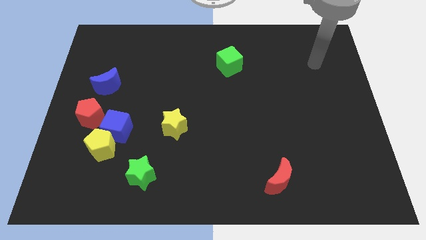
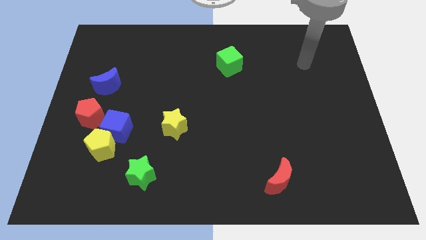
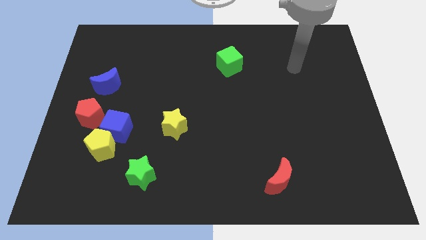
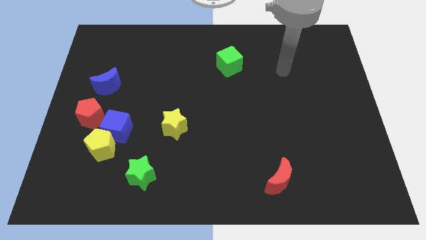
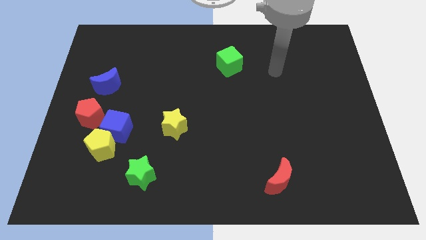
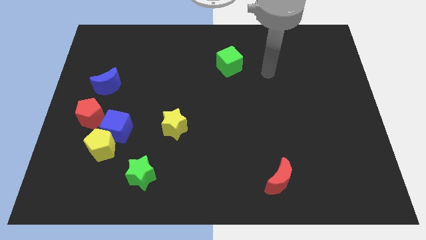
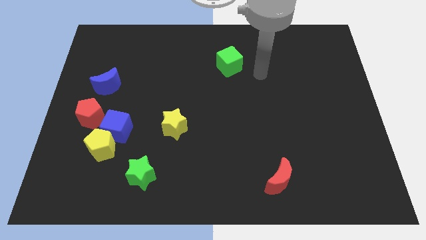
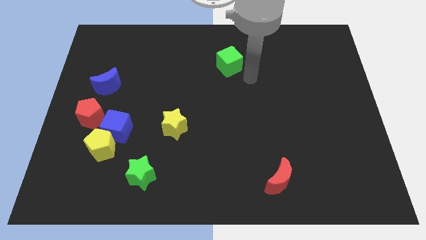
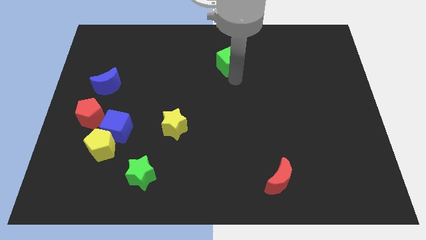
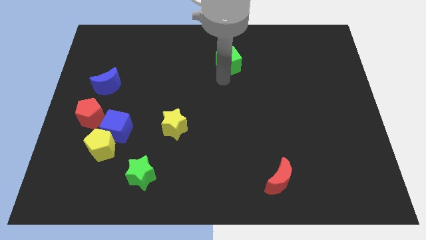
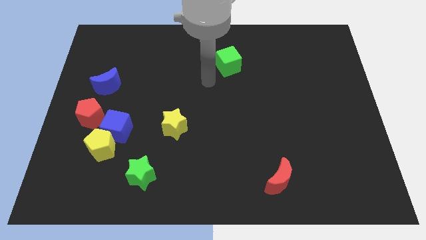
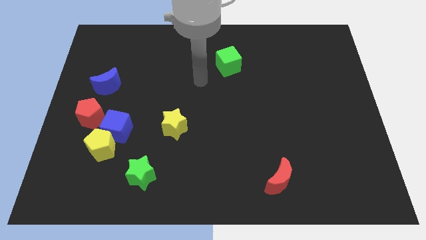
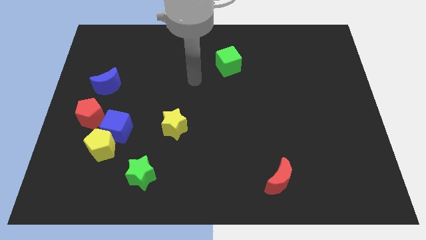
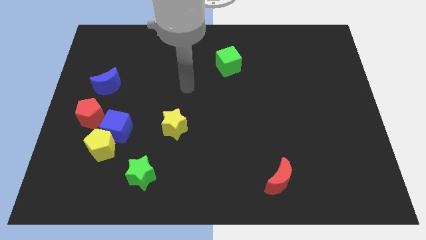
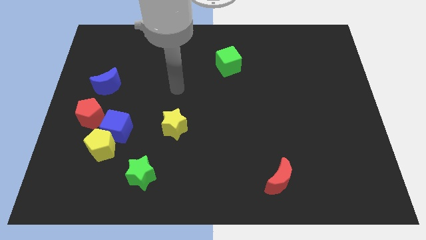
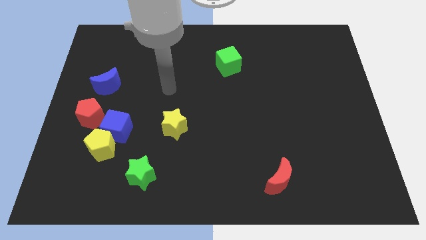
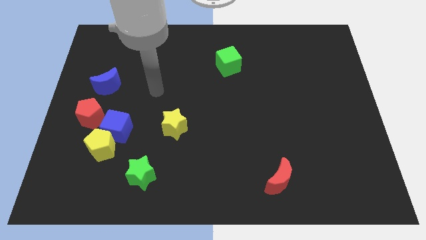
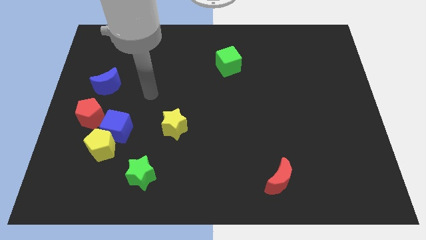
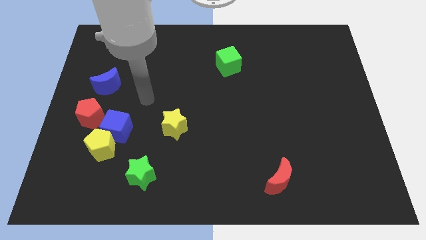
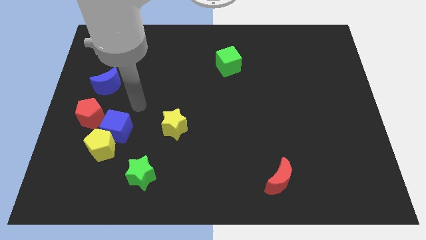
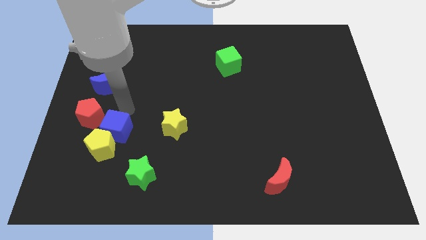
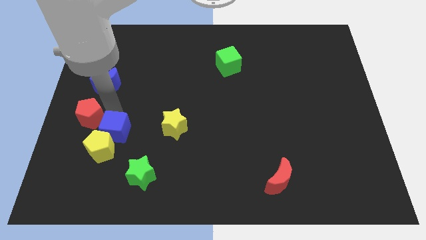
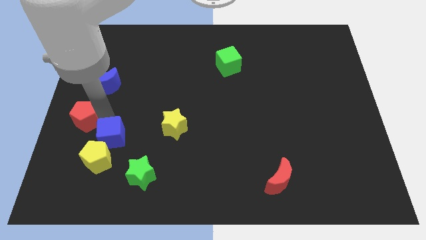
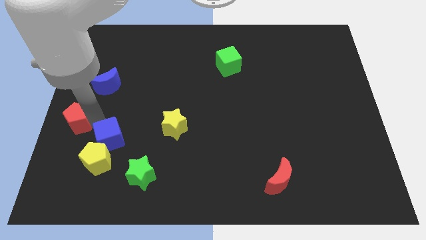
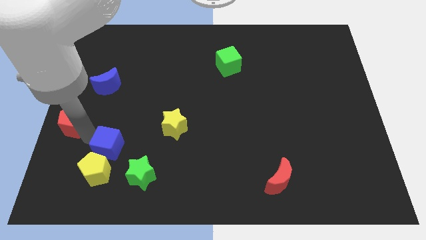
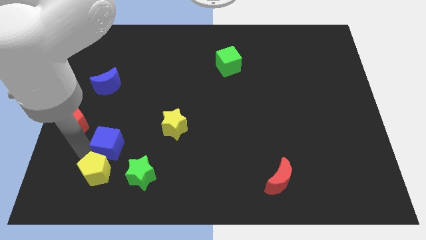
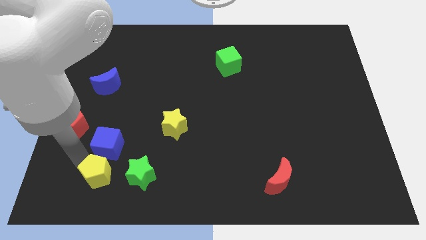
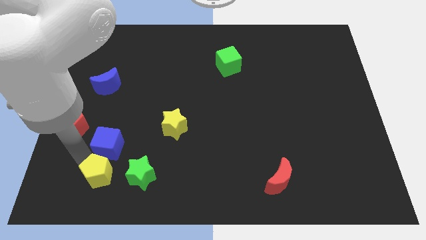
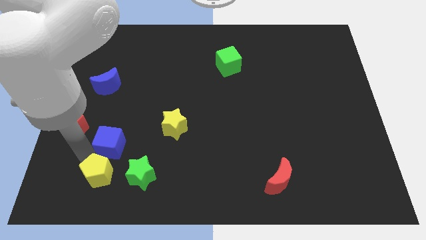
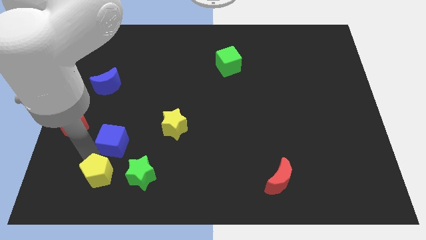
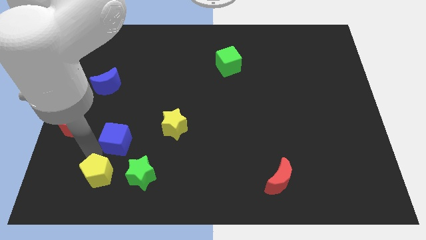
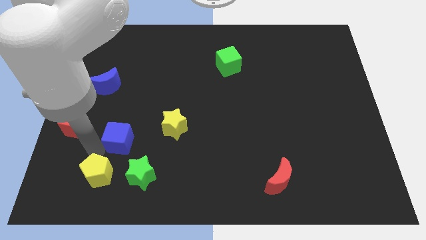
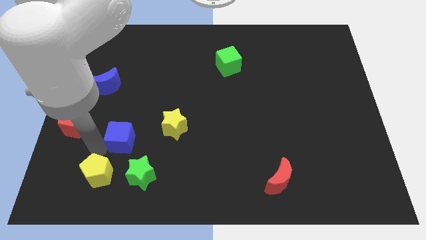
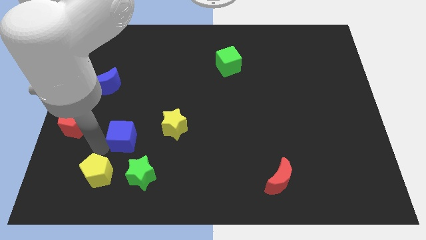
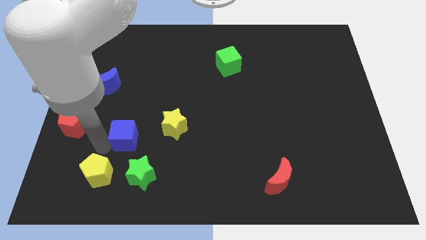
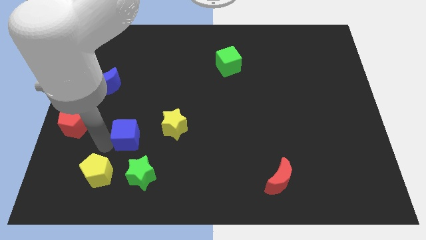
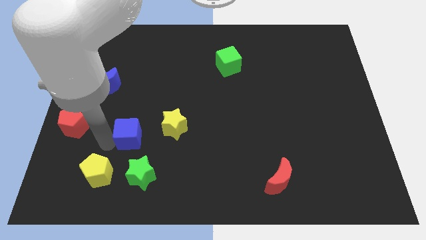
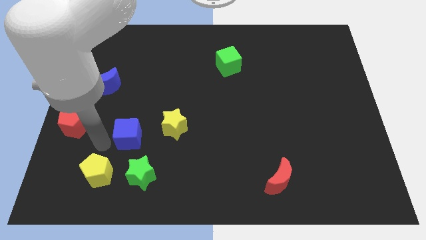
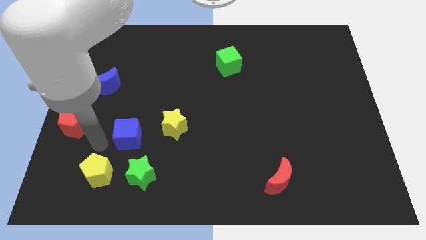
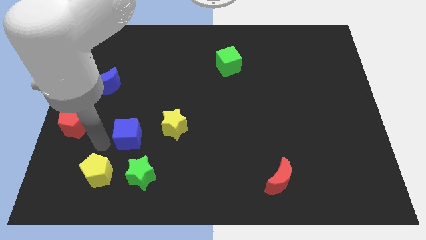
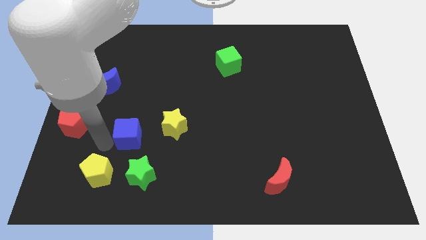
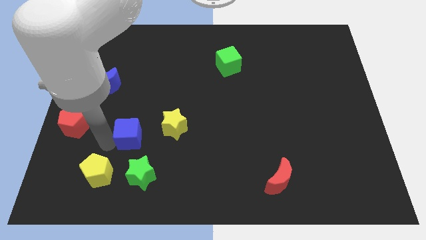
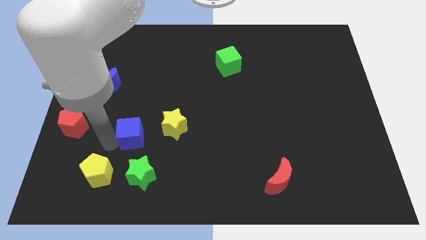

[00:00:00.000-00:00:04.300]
pull the blue cube apart from the yellow pentagon and red pentagon

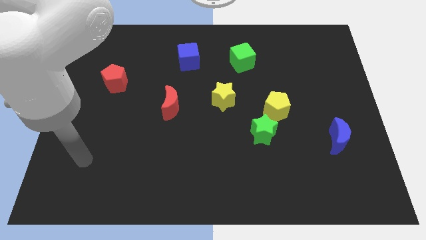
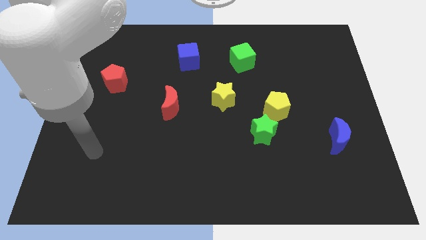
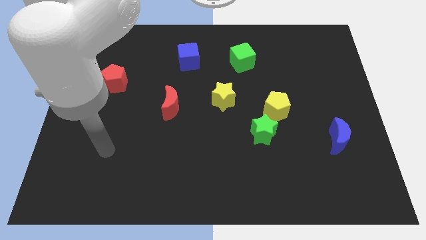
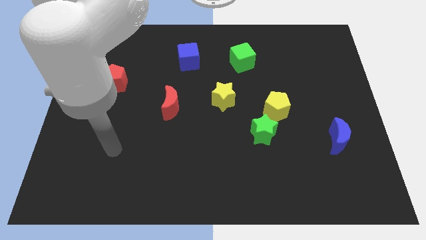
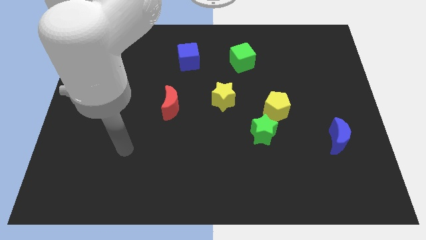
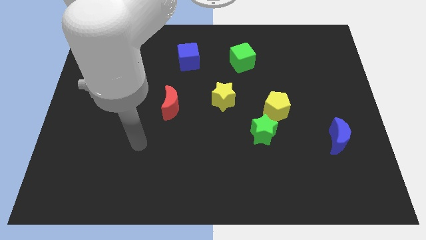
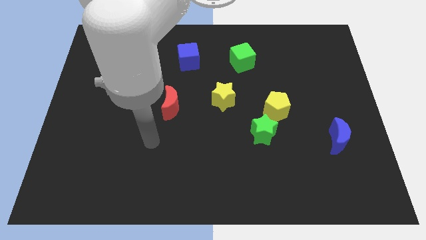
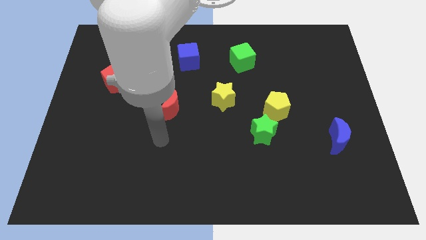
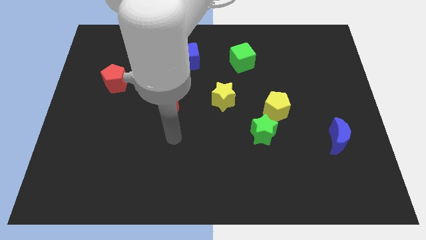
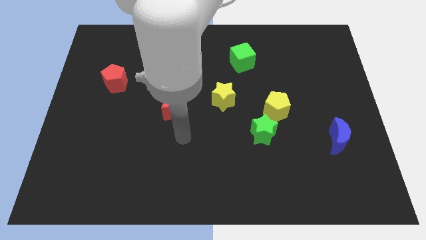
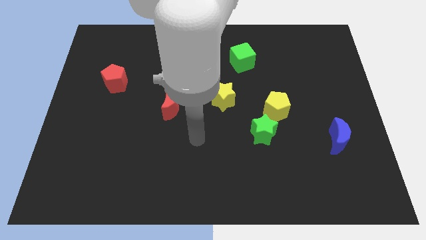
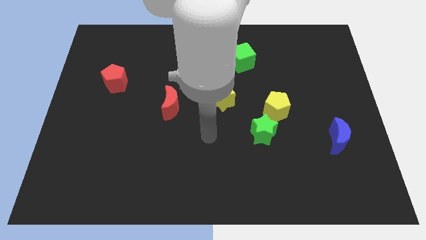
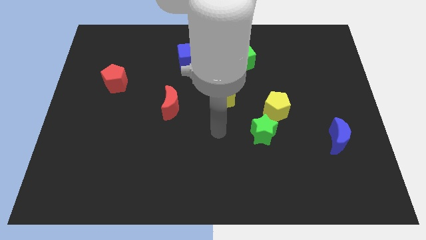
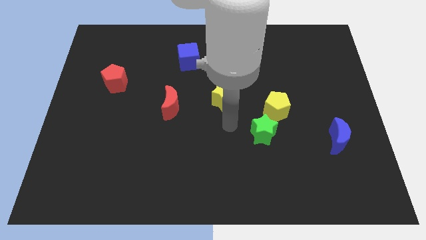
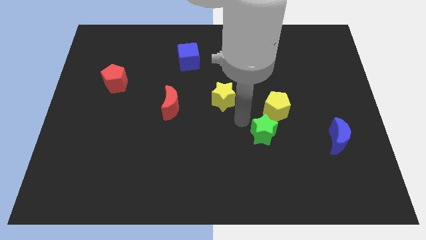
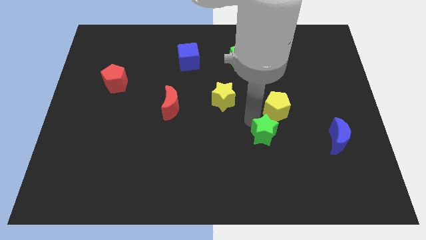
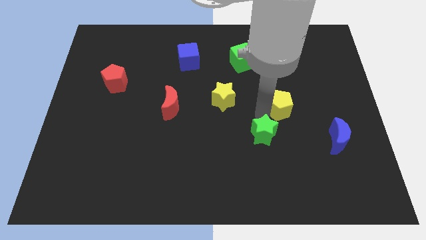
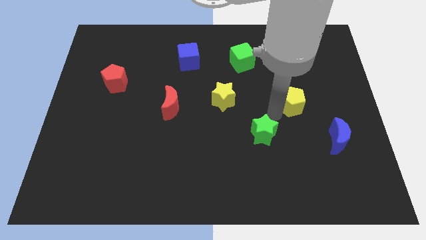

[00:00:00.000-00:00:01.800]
move the green star away from the yellow pentagon

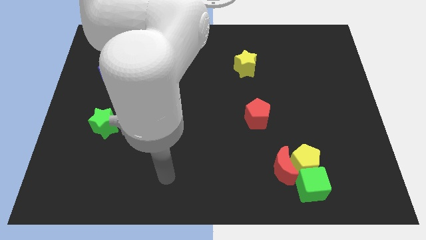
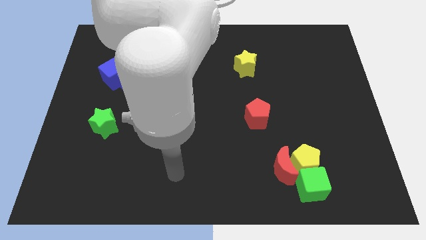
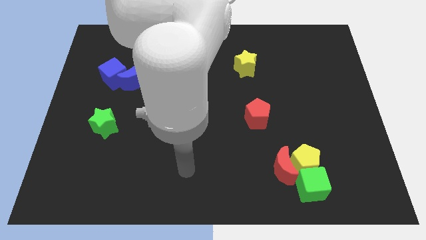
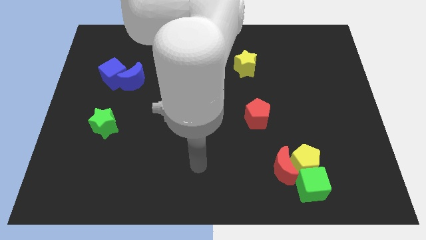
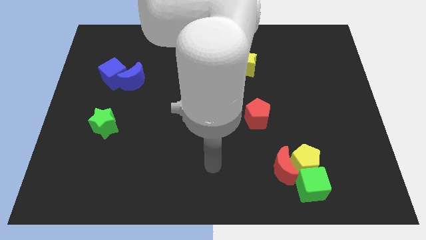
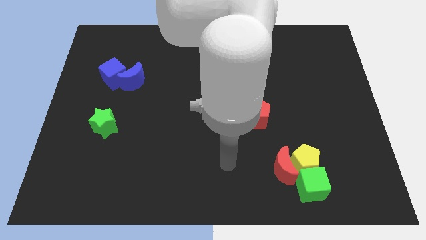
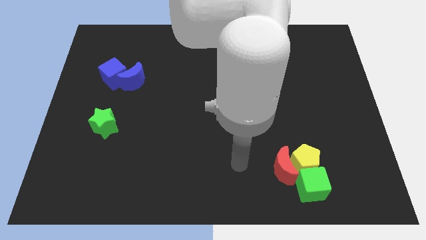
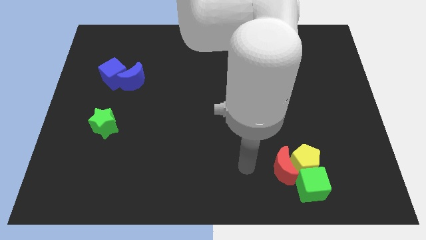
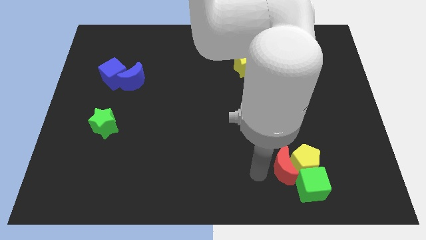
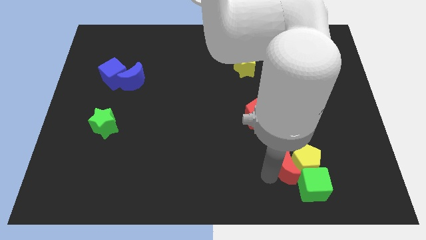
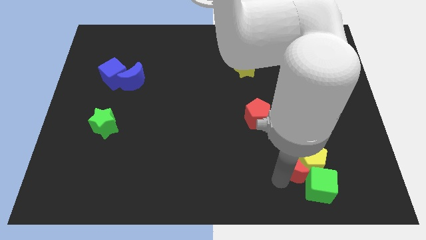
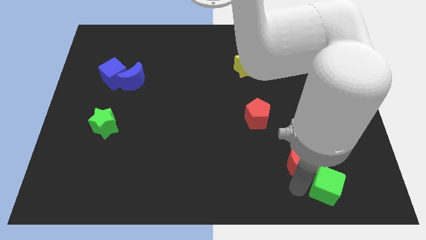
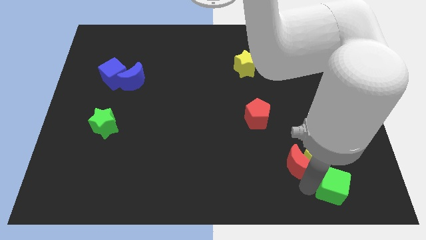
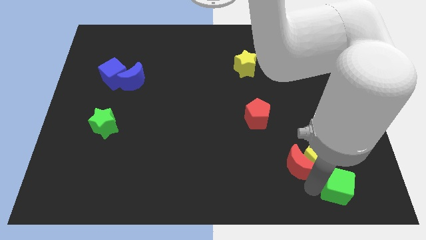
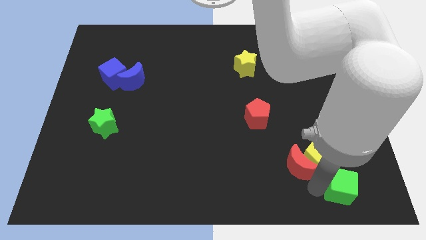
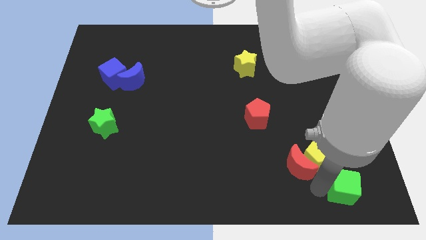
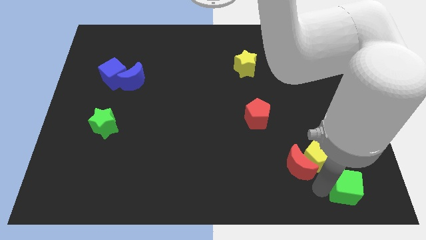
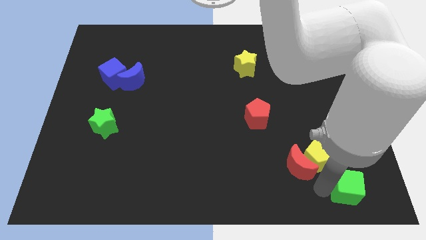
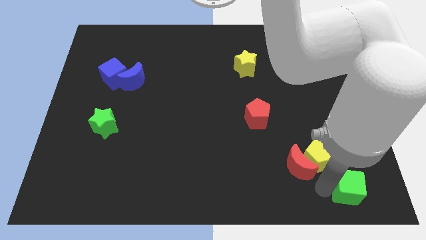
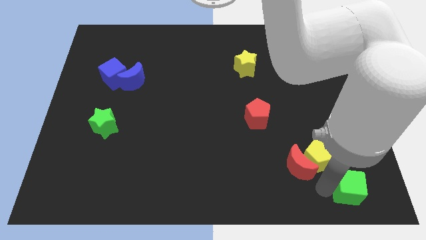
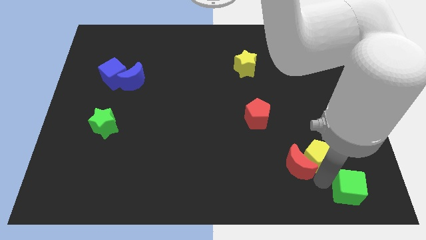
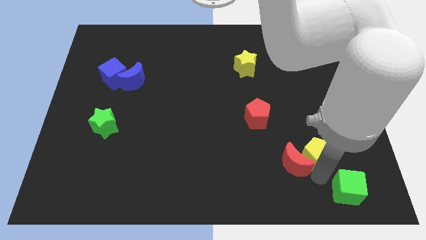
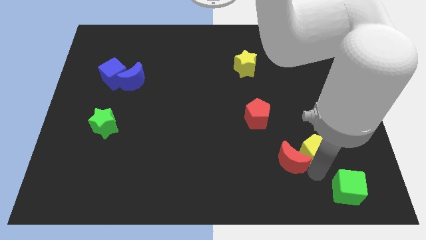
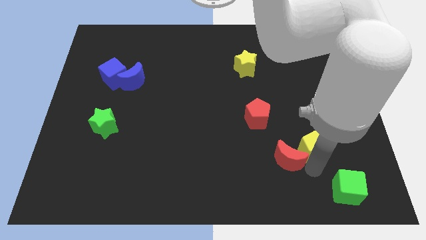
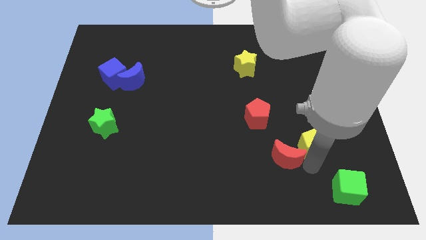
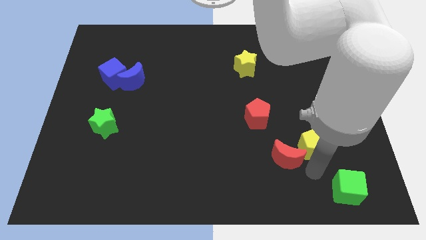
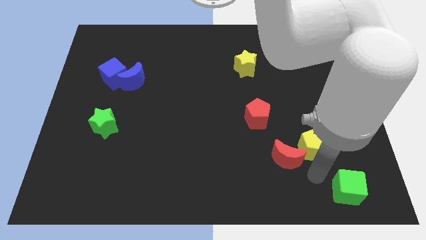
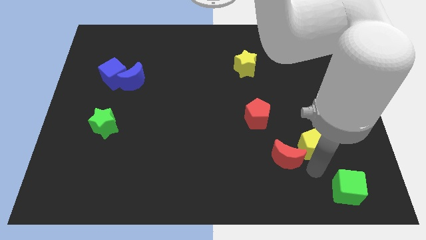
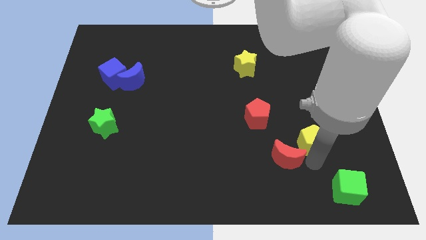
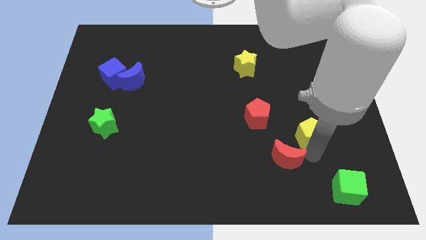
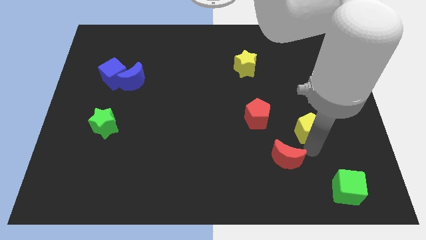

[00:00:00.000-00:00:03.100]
move the yellow pentagon away from the red moon and green cube

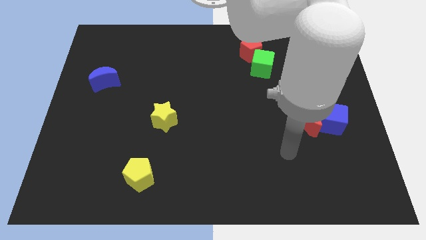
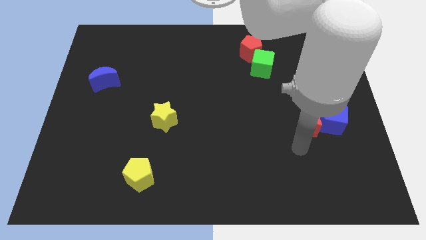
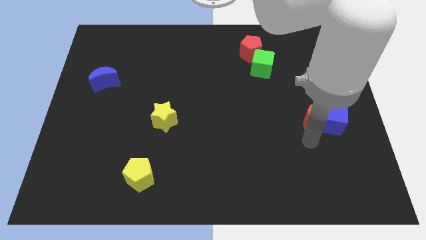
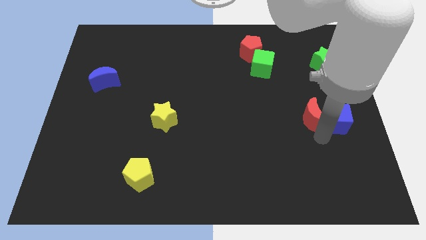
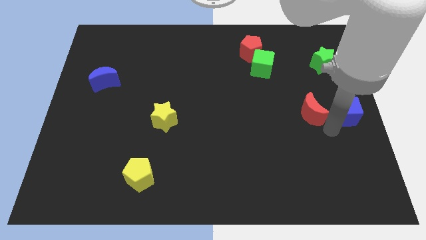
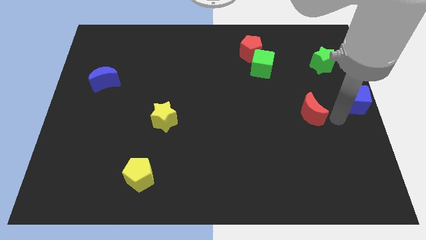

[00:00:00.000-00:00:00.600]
move the red moon away from the blue cube
